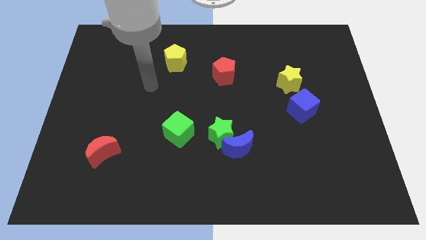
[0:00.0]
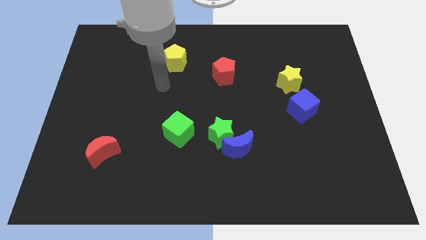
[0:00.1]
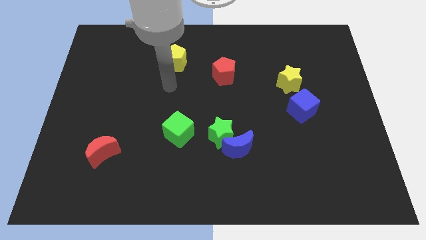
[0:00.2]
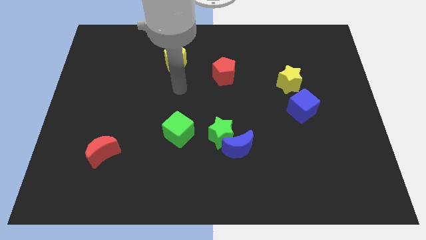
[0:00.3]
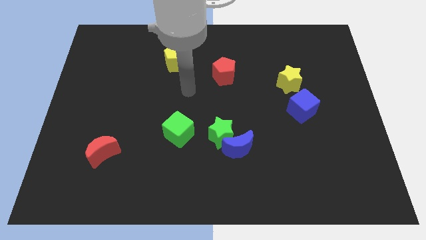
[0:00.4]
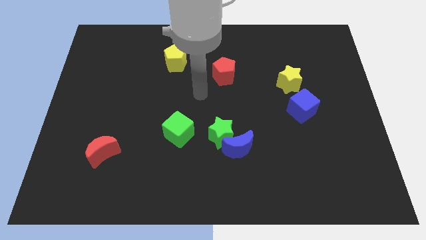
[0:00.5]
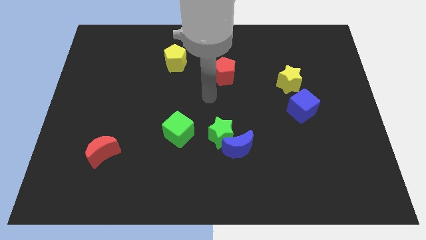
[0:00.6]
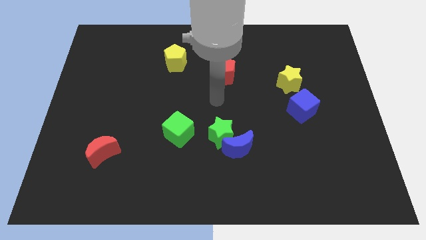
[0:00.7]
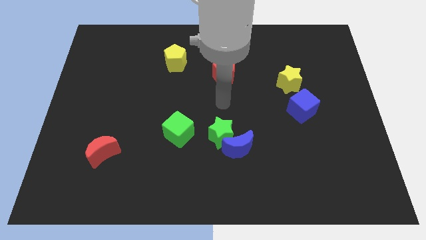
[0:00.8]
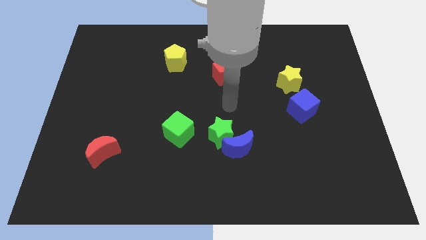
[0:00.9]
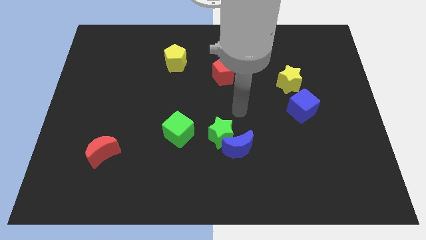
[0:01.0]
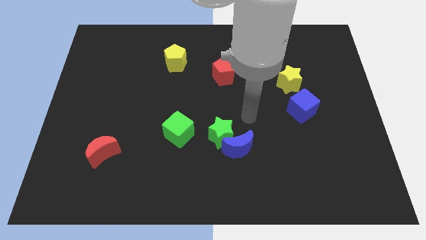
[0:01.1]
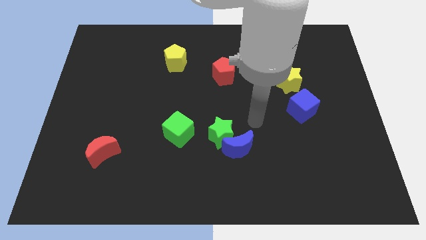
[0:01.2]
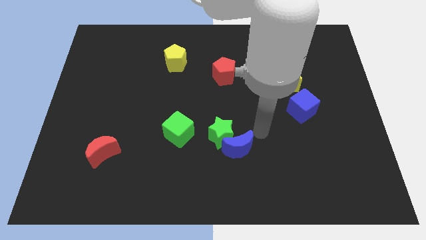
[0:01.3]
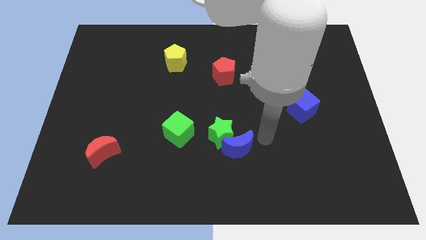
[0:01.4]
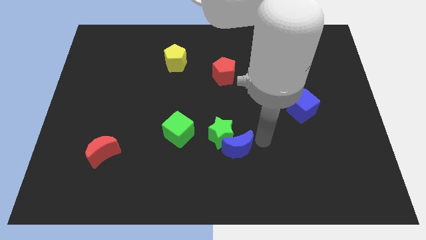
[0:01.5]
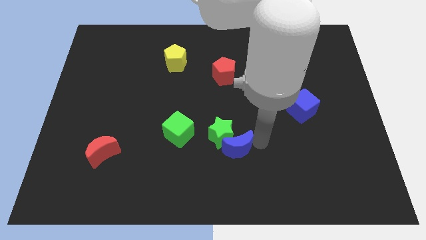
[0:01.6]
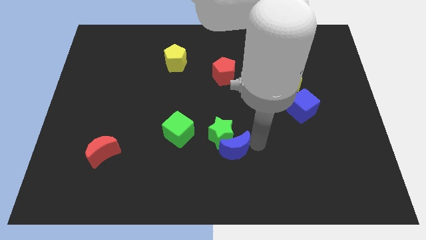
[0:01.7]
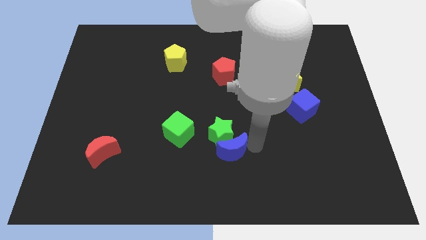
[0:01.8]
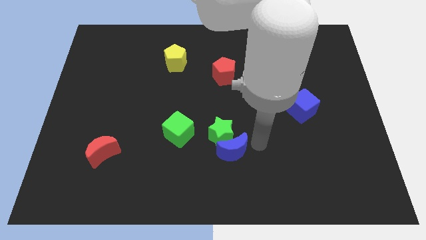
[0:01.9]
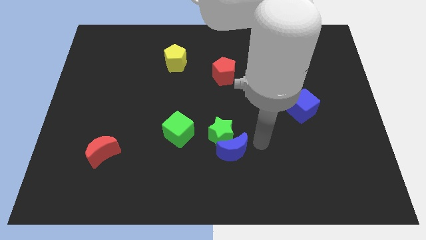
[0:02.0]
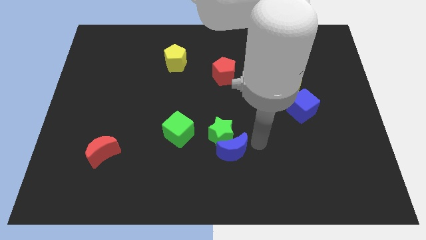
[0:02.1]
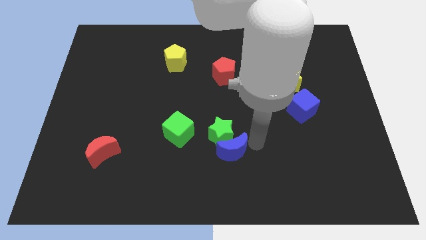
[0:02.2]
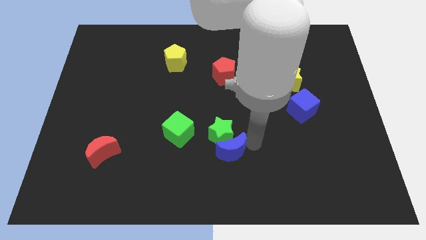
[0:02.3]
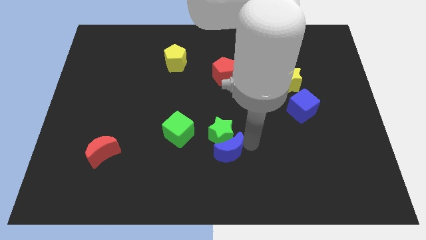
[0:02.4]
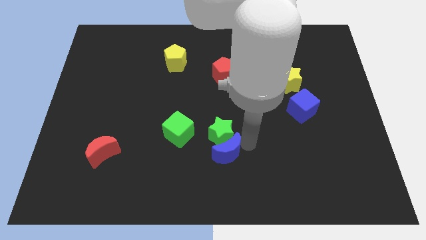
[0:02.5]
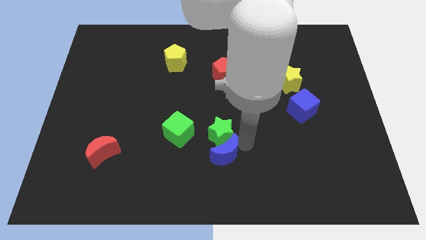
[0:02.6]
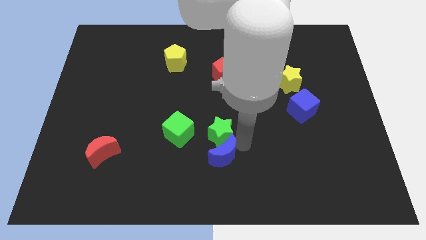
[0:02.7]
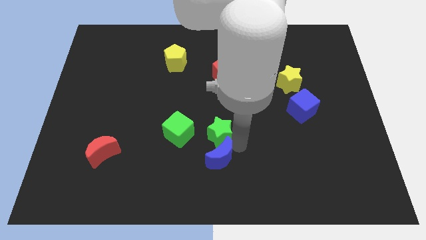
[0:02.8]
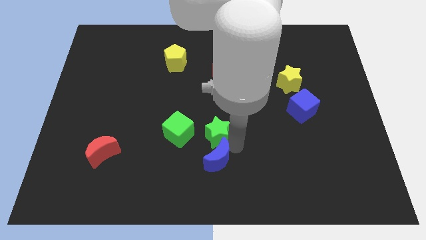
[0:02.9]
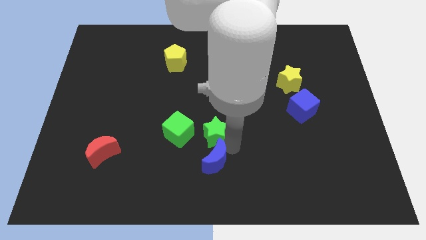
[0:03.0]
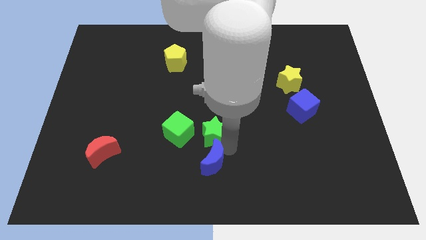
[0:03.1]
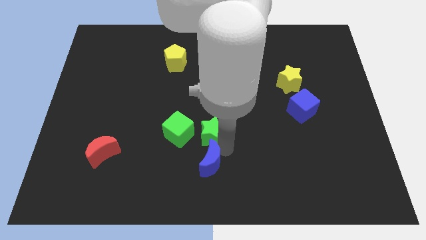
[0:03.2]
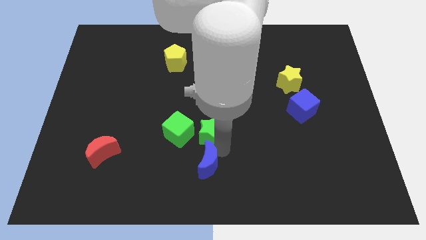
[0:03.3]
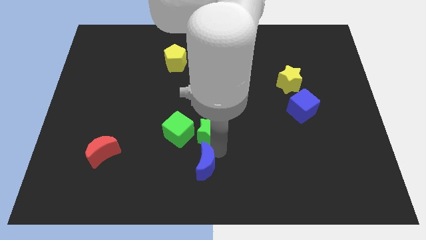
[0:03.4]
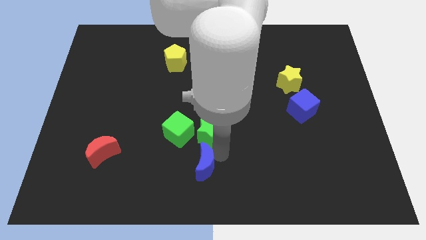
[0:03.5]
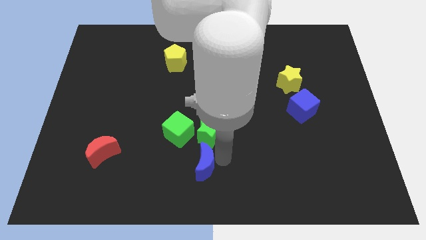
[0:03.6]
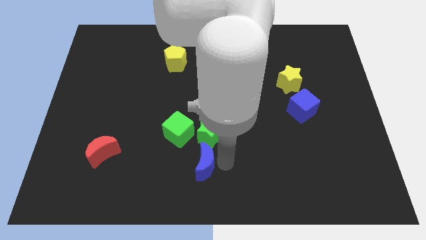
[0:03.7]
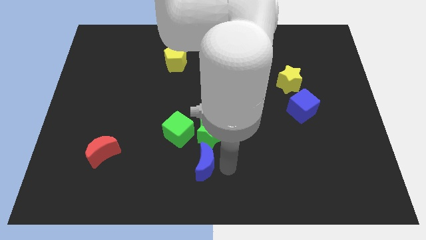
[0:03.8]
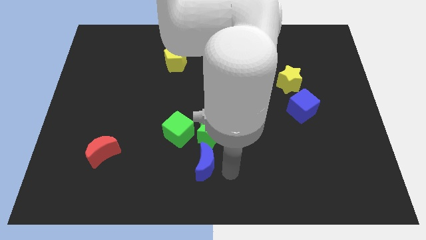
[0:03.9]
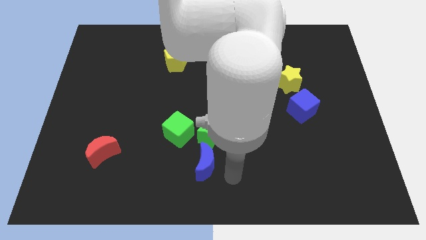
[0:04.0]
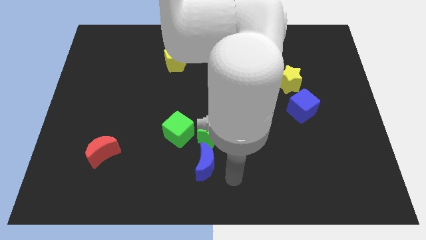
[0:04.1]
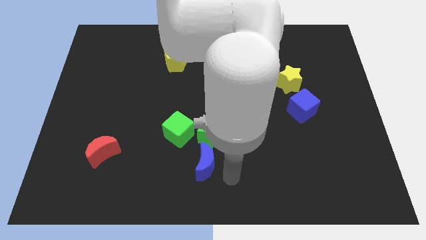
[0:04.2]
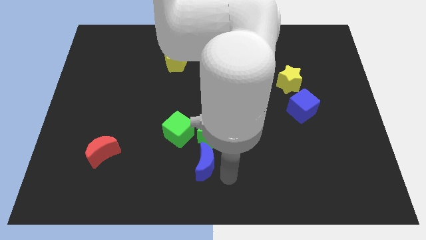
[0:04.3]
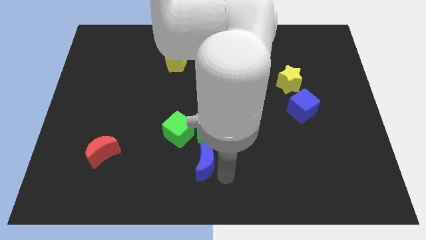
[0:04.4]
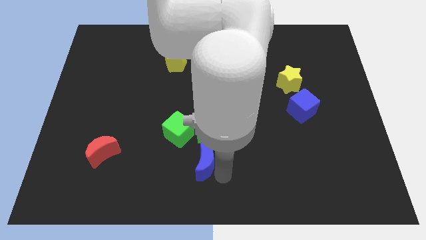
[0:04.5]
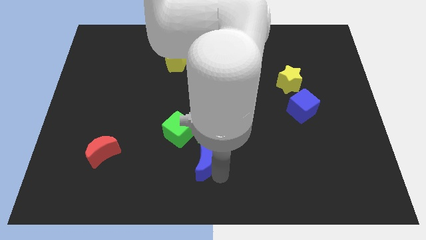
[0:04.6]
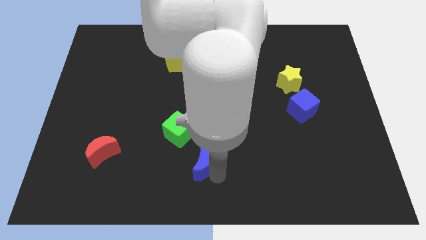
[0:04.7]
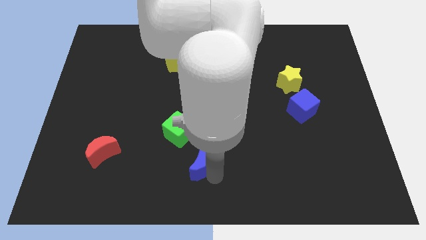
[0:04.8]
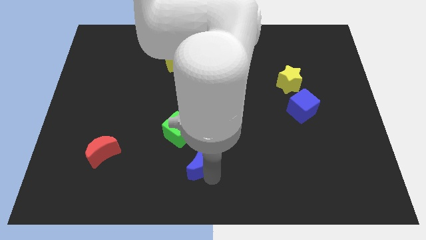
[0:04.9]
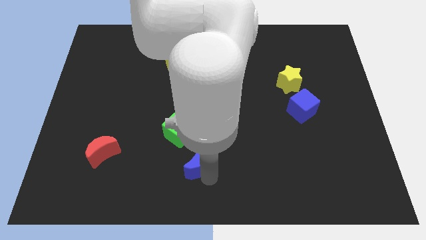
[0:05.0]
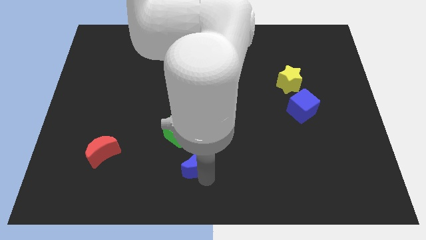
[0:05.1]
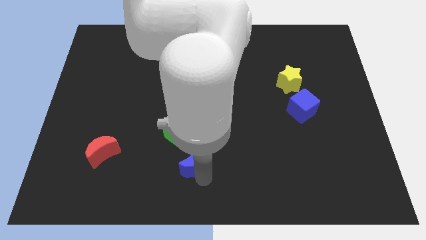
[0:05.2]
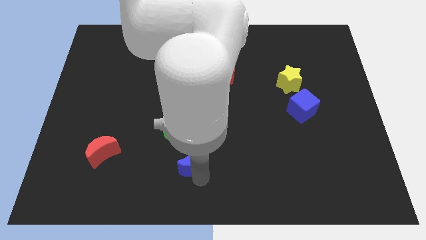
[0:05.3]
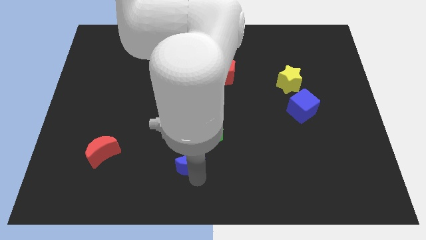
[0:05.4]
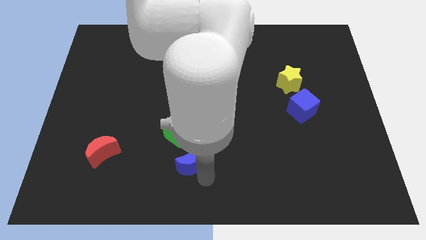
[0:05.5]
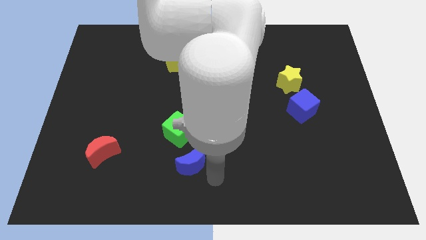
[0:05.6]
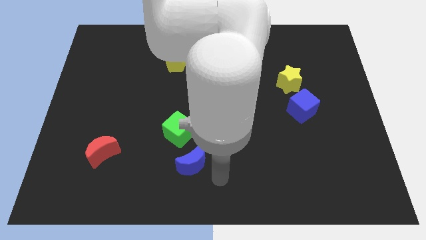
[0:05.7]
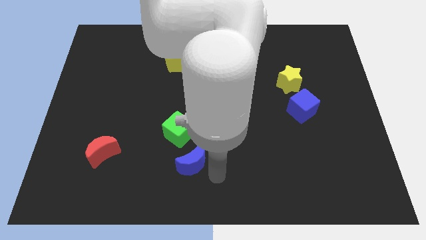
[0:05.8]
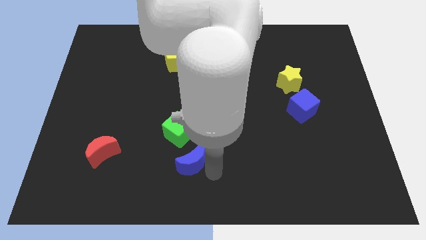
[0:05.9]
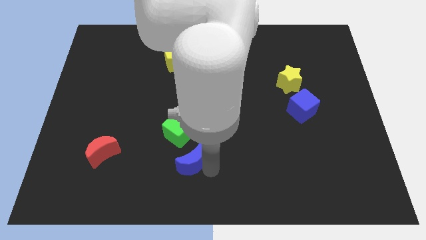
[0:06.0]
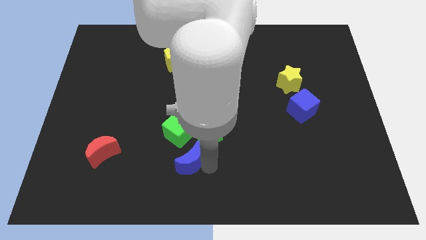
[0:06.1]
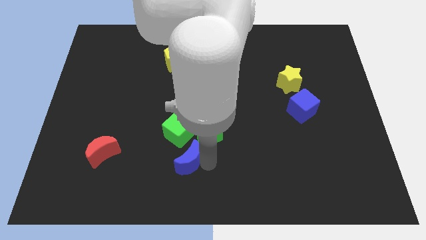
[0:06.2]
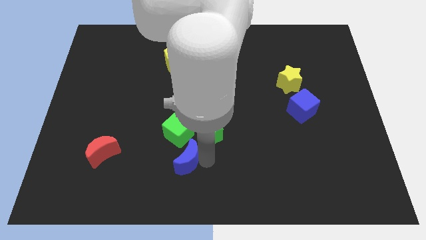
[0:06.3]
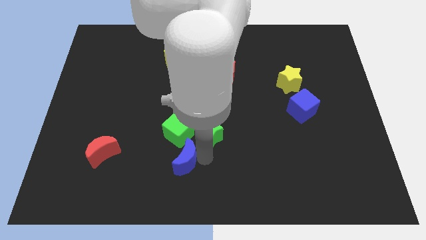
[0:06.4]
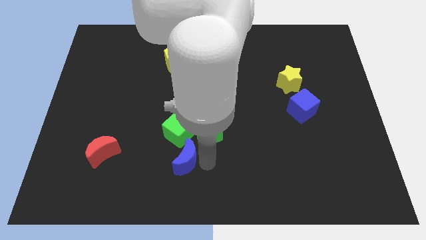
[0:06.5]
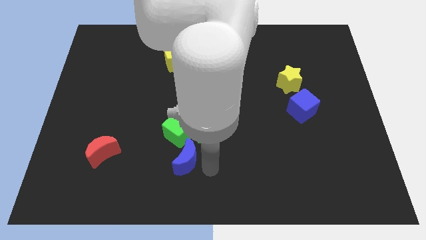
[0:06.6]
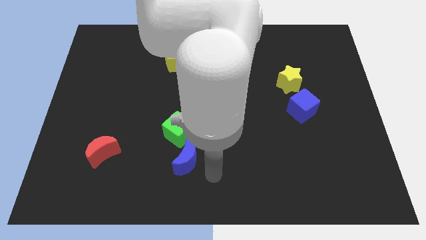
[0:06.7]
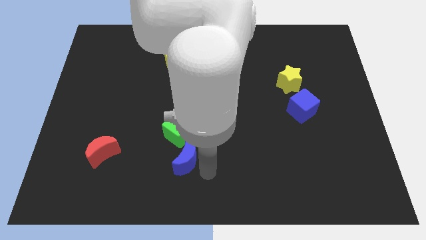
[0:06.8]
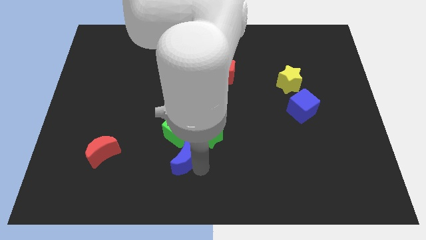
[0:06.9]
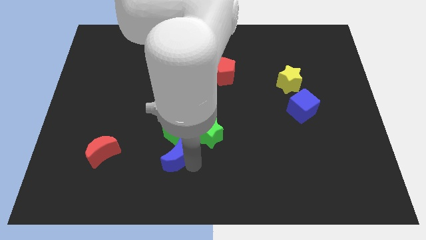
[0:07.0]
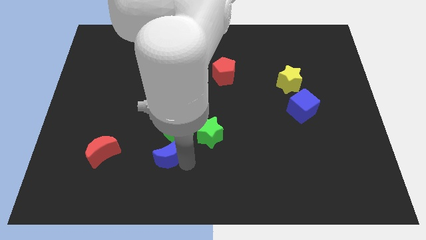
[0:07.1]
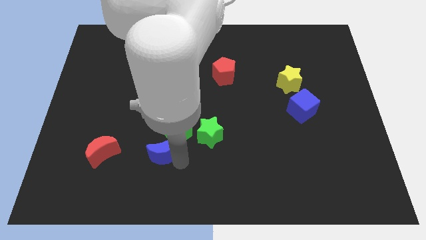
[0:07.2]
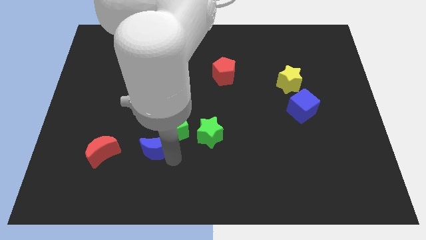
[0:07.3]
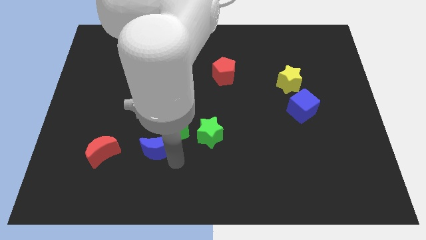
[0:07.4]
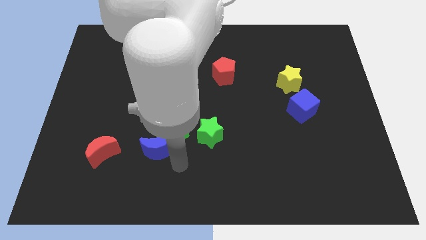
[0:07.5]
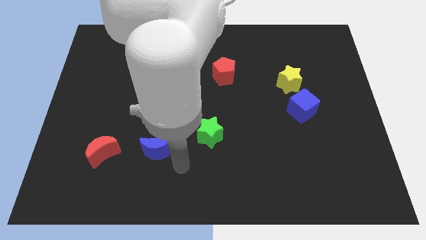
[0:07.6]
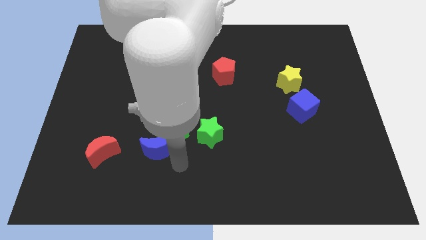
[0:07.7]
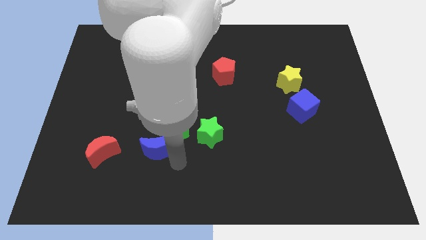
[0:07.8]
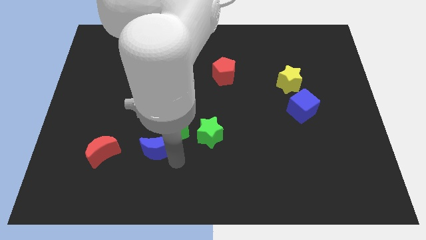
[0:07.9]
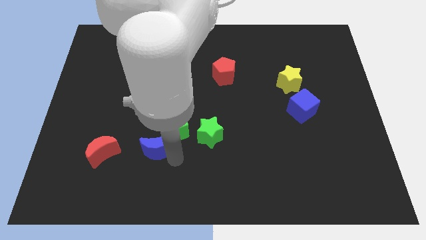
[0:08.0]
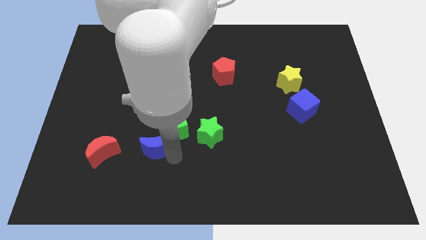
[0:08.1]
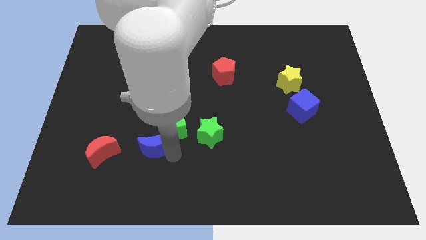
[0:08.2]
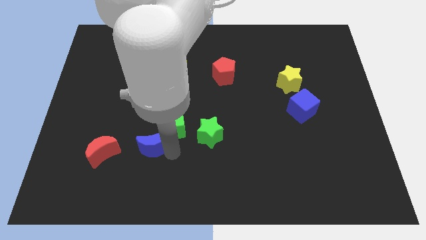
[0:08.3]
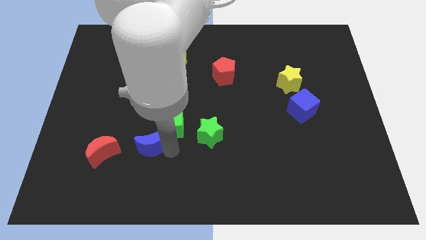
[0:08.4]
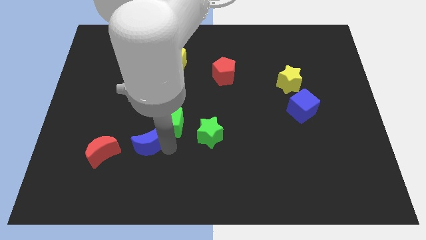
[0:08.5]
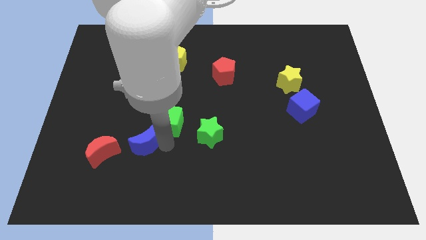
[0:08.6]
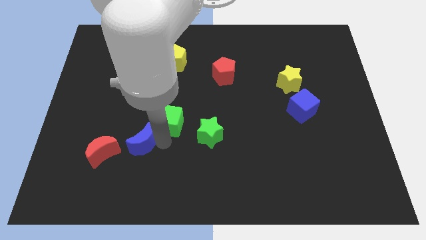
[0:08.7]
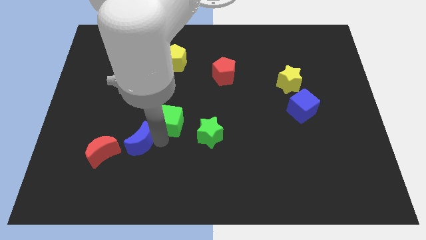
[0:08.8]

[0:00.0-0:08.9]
move the blue moon to the left side of the green cube
